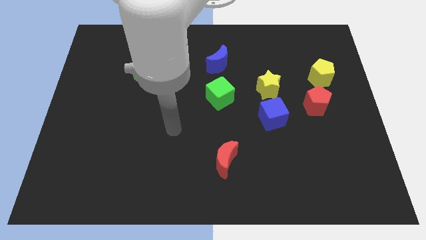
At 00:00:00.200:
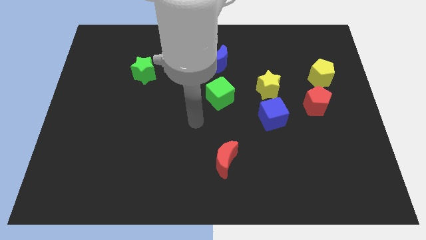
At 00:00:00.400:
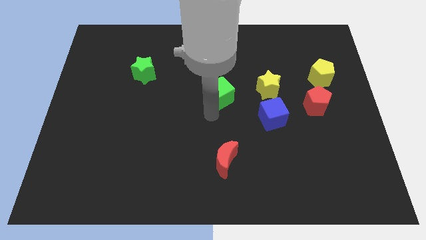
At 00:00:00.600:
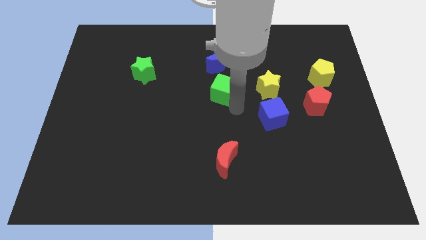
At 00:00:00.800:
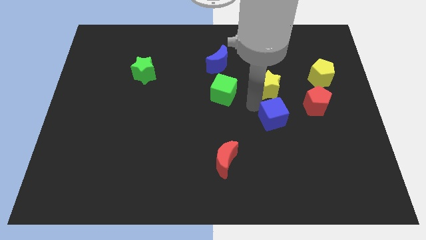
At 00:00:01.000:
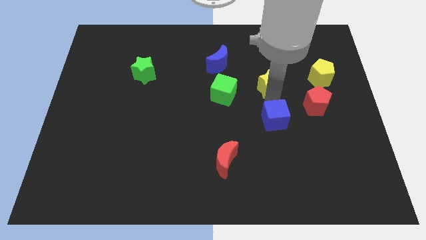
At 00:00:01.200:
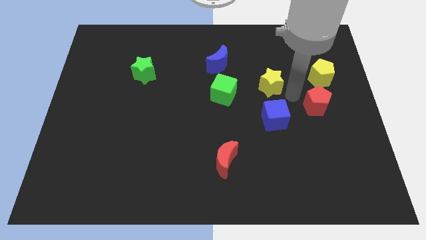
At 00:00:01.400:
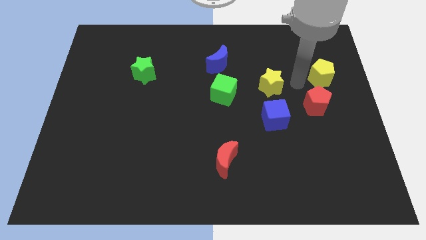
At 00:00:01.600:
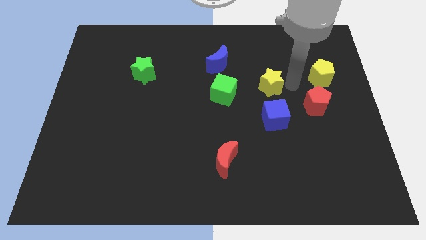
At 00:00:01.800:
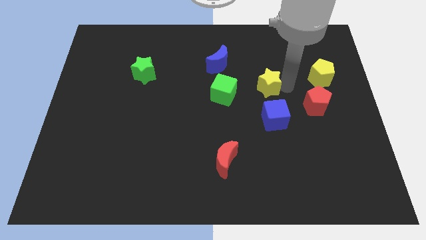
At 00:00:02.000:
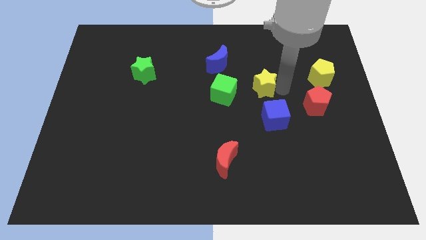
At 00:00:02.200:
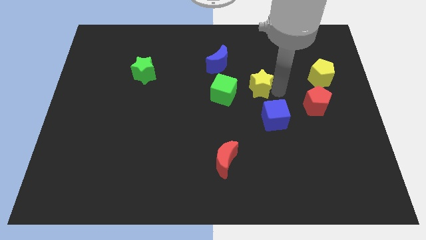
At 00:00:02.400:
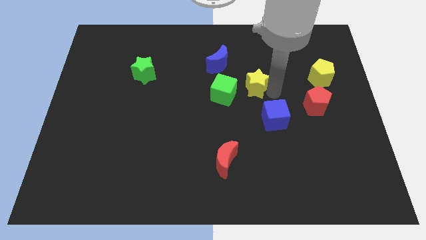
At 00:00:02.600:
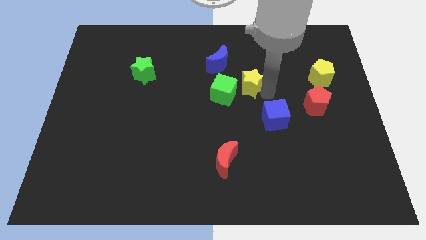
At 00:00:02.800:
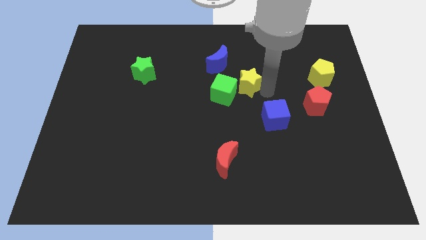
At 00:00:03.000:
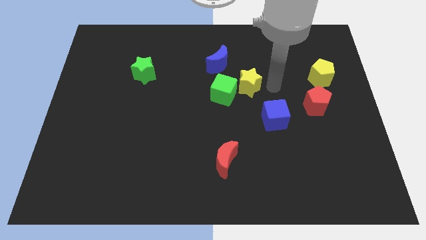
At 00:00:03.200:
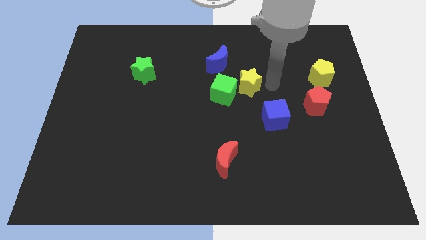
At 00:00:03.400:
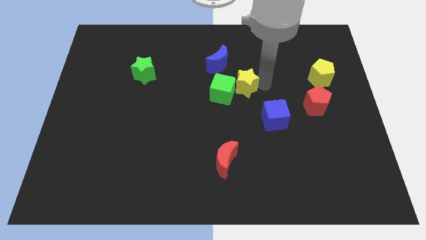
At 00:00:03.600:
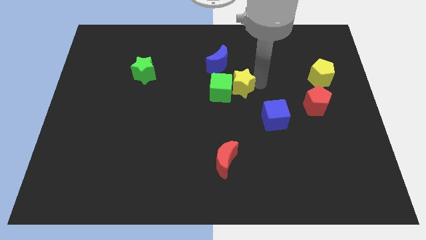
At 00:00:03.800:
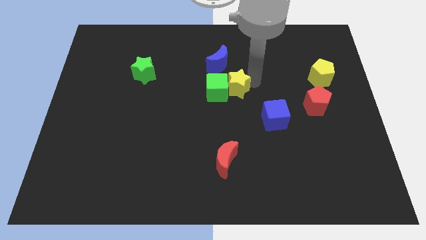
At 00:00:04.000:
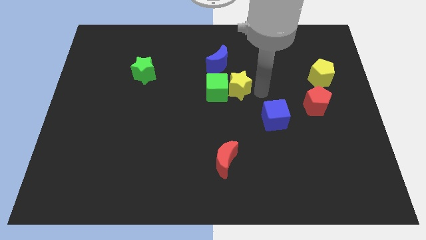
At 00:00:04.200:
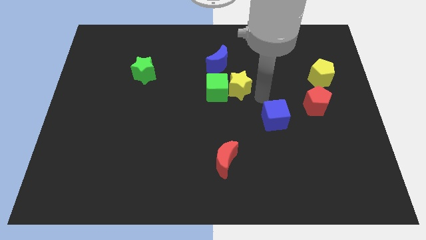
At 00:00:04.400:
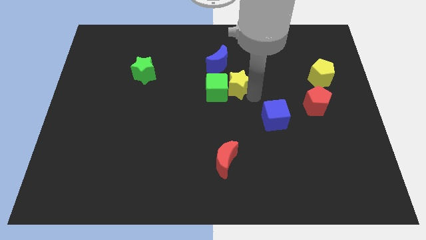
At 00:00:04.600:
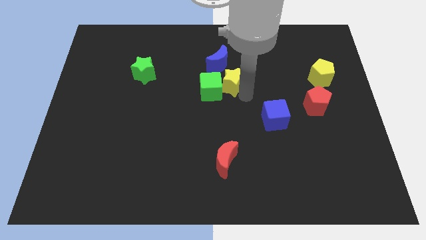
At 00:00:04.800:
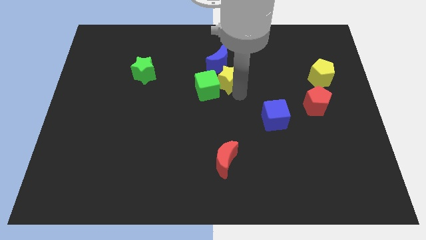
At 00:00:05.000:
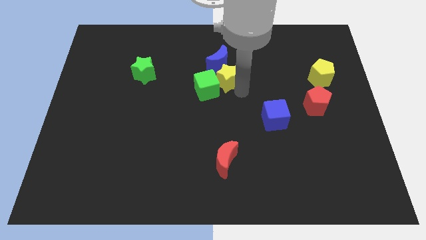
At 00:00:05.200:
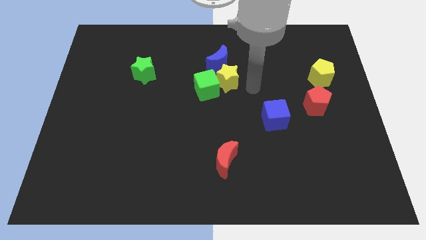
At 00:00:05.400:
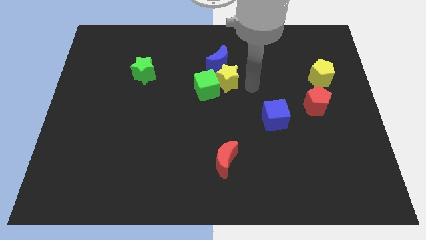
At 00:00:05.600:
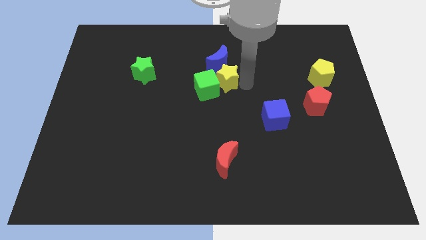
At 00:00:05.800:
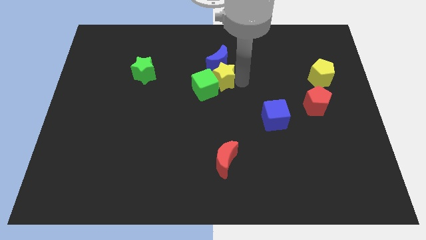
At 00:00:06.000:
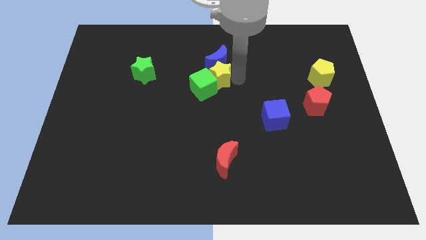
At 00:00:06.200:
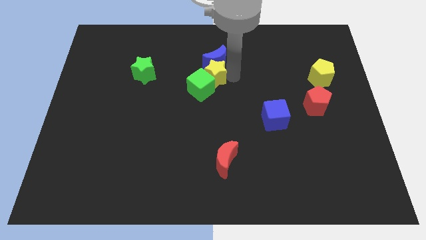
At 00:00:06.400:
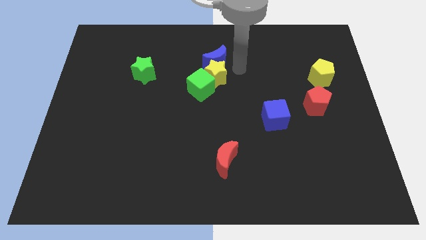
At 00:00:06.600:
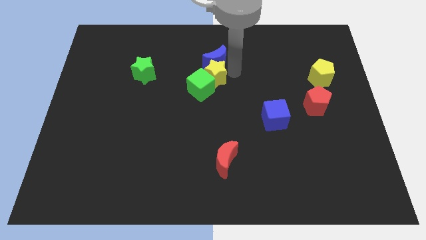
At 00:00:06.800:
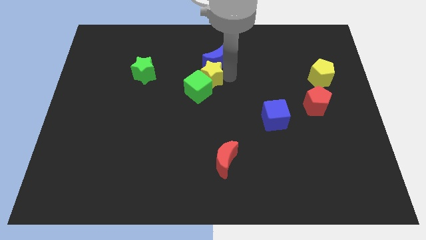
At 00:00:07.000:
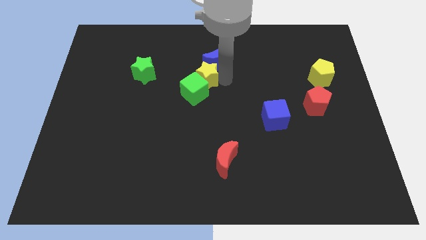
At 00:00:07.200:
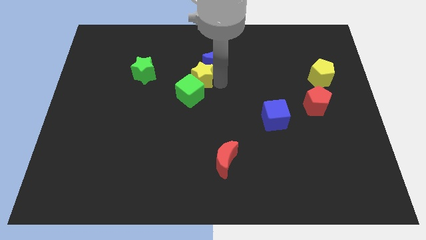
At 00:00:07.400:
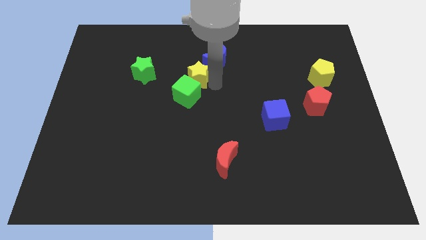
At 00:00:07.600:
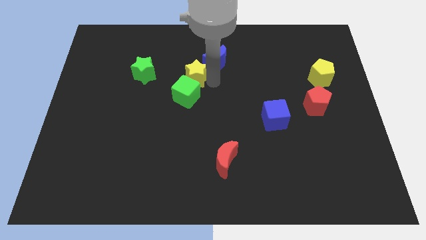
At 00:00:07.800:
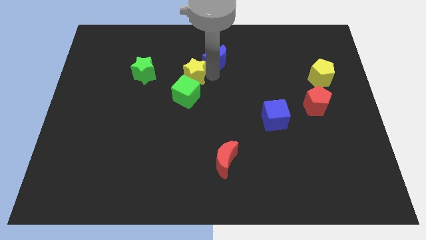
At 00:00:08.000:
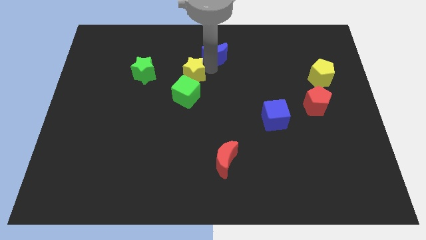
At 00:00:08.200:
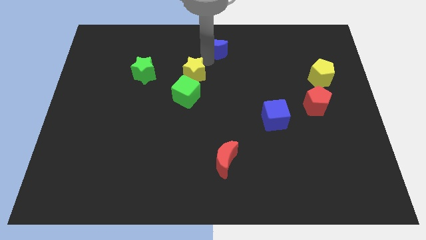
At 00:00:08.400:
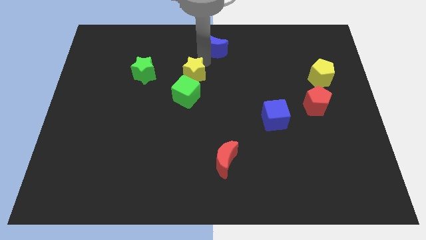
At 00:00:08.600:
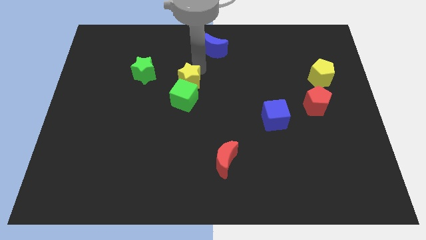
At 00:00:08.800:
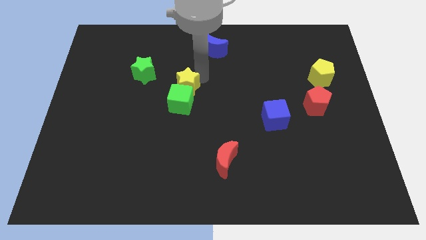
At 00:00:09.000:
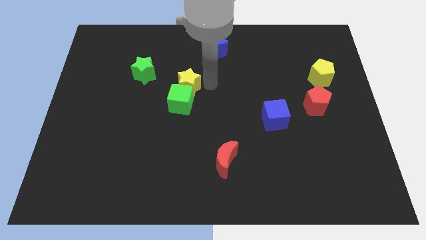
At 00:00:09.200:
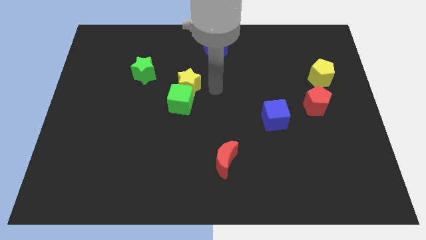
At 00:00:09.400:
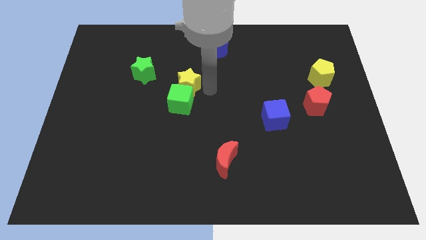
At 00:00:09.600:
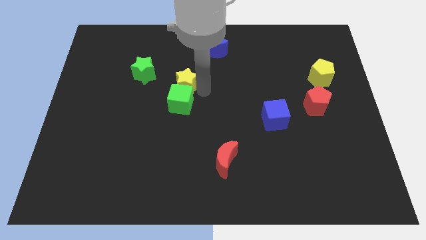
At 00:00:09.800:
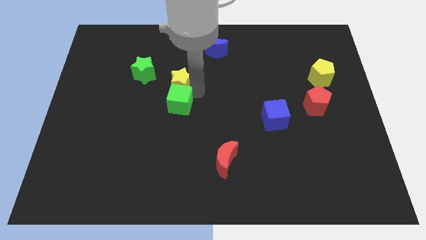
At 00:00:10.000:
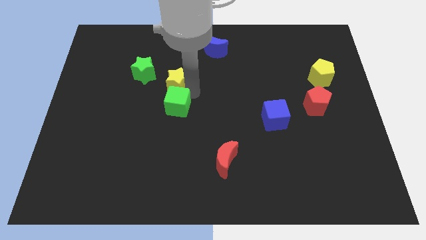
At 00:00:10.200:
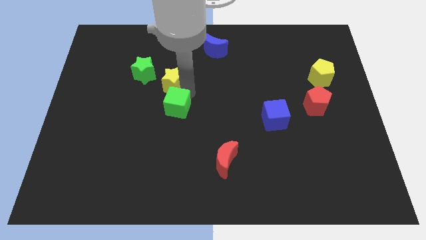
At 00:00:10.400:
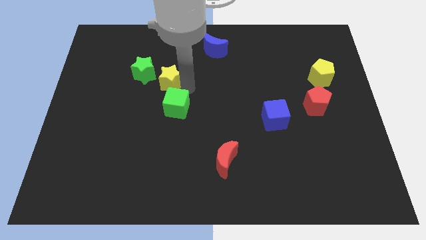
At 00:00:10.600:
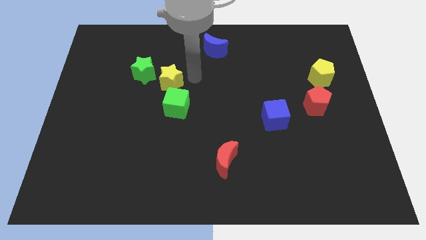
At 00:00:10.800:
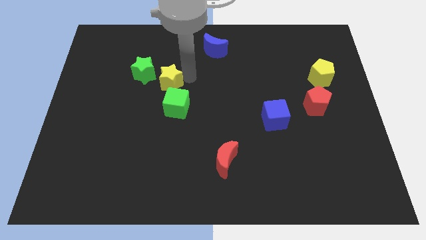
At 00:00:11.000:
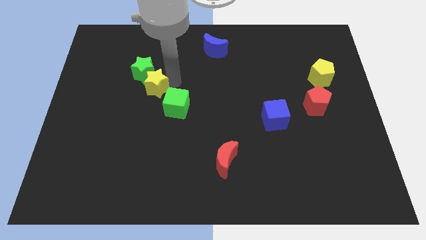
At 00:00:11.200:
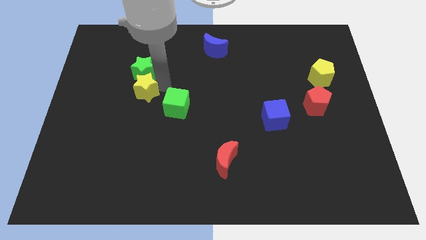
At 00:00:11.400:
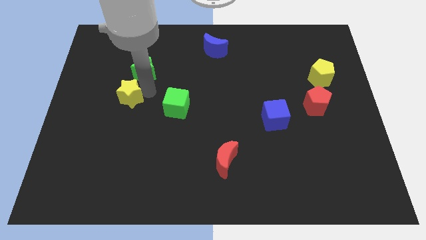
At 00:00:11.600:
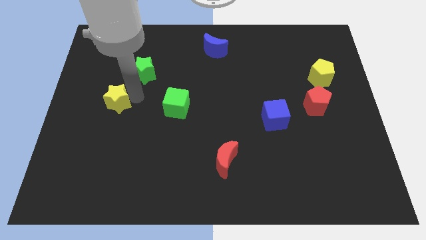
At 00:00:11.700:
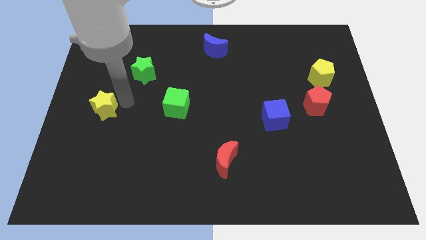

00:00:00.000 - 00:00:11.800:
move the yellow star to the left side of the board
